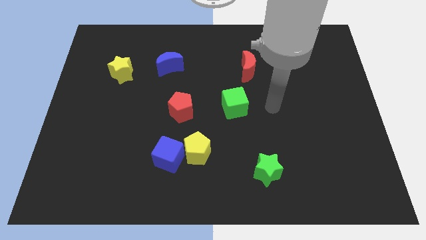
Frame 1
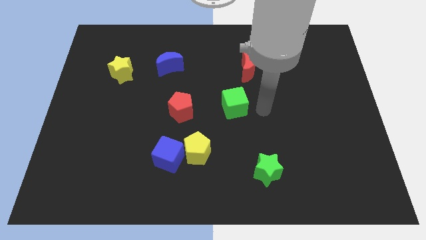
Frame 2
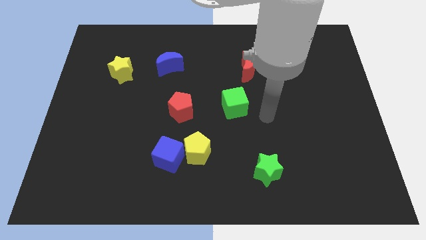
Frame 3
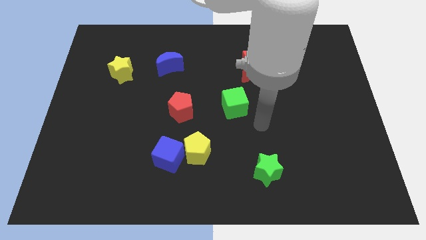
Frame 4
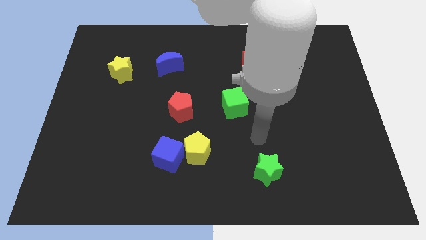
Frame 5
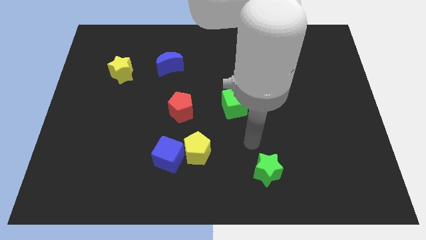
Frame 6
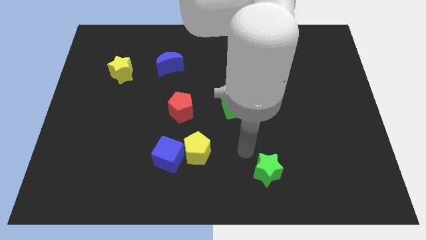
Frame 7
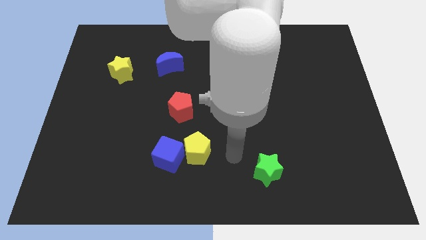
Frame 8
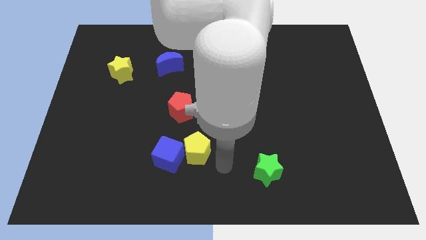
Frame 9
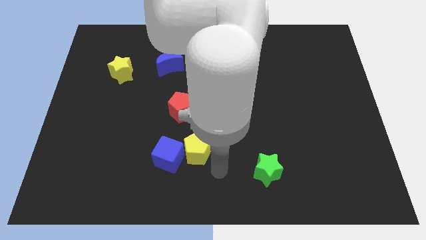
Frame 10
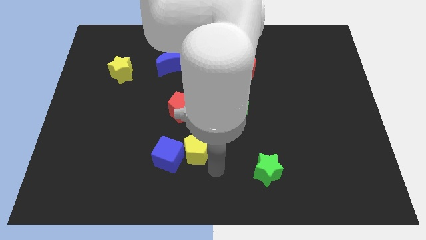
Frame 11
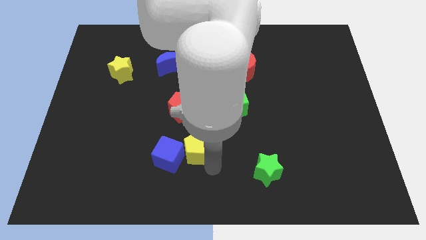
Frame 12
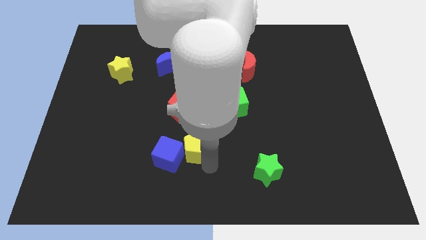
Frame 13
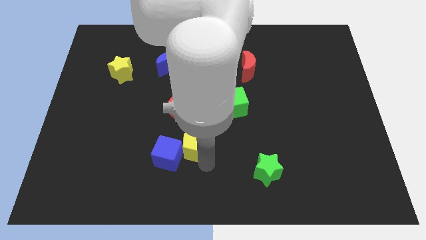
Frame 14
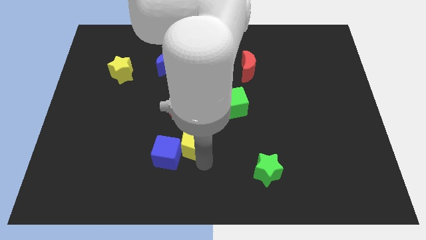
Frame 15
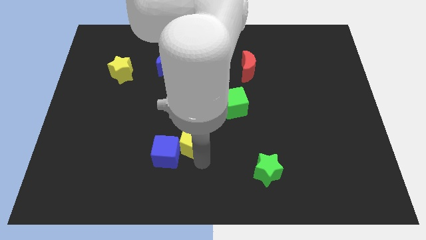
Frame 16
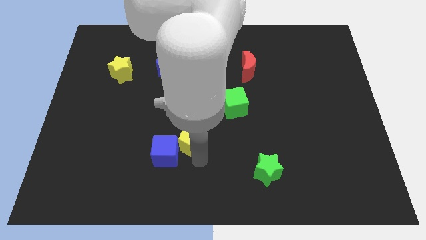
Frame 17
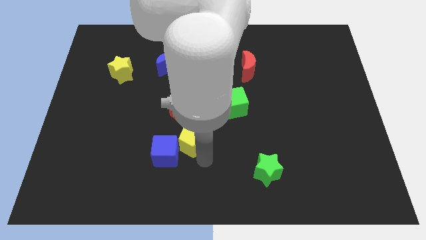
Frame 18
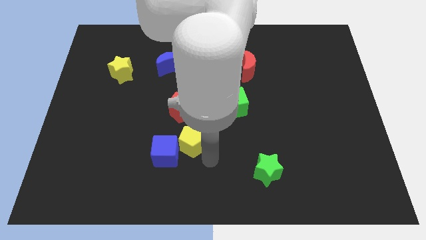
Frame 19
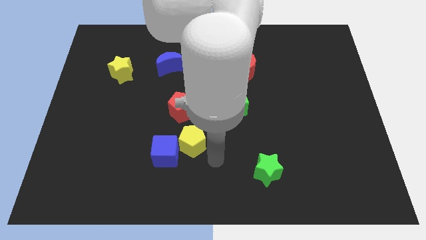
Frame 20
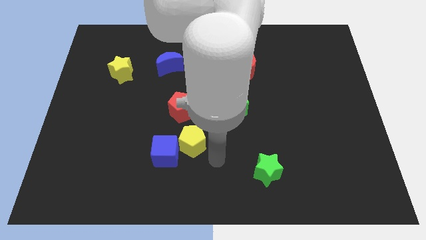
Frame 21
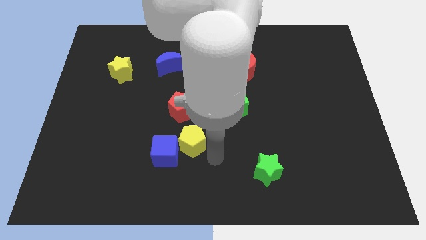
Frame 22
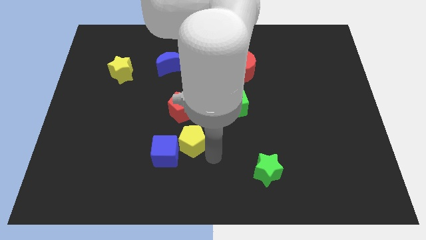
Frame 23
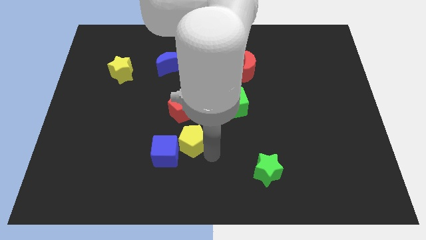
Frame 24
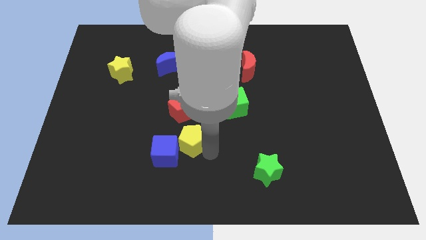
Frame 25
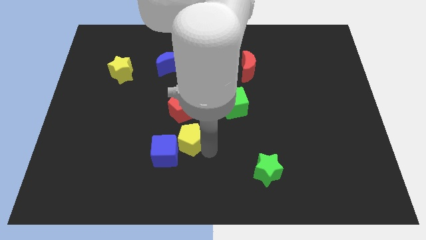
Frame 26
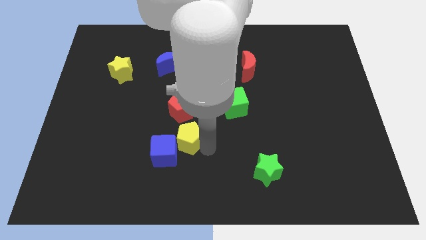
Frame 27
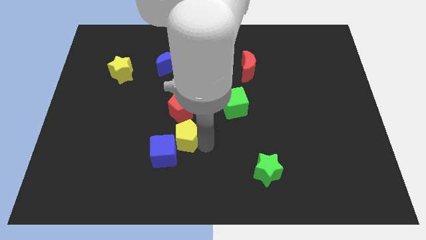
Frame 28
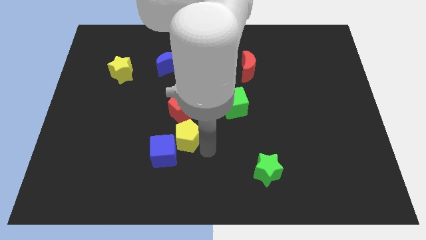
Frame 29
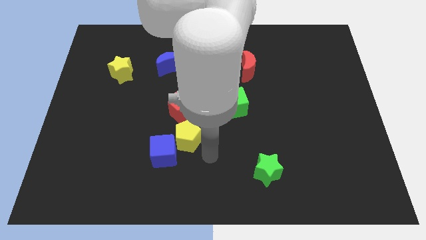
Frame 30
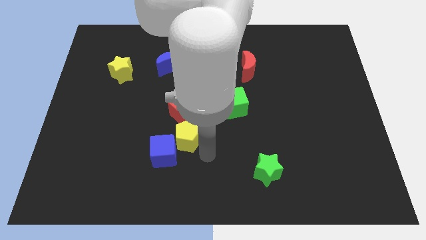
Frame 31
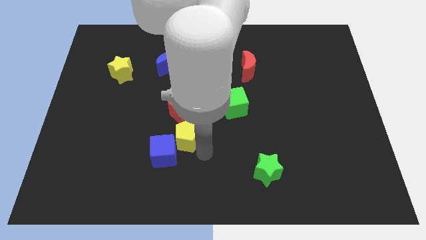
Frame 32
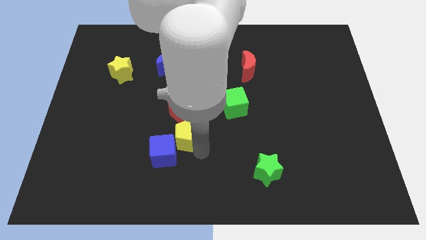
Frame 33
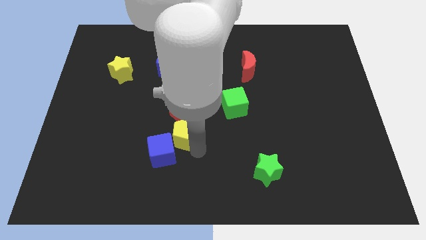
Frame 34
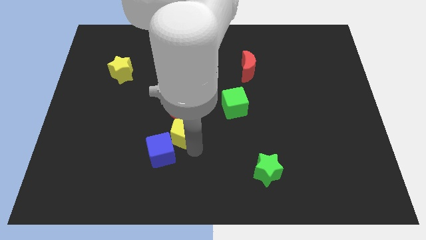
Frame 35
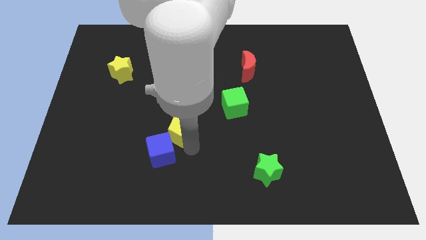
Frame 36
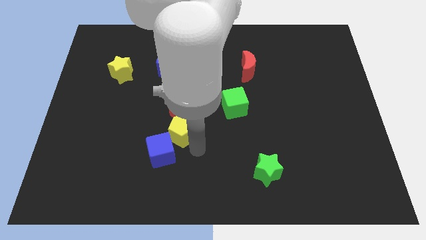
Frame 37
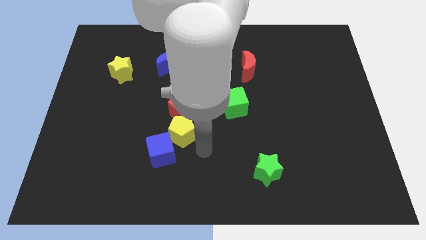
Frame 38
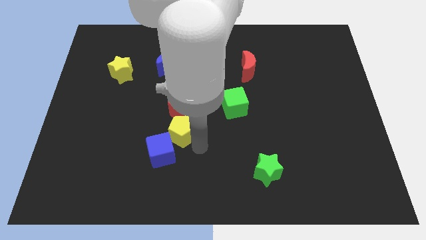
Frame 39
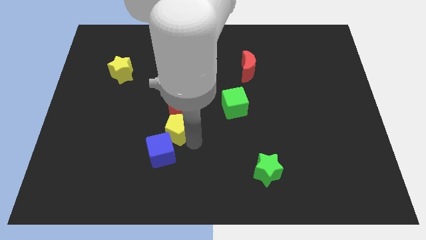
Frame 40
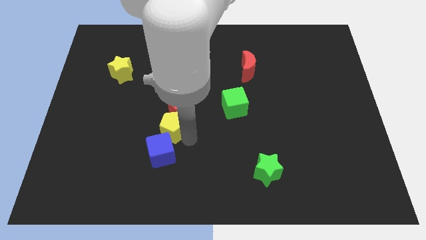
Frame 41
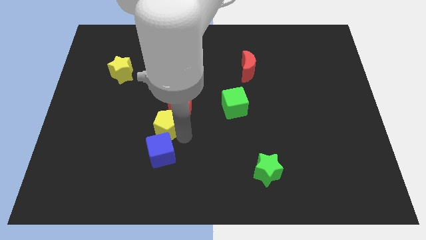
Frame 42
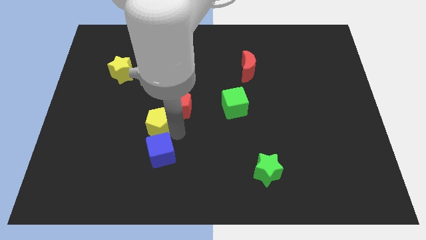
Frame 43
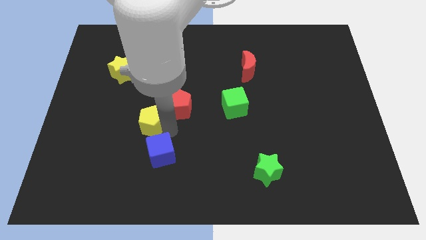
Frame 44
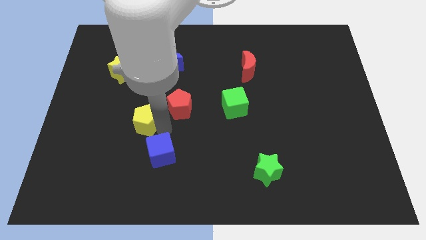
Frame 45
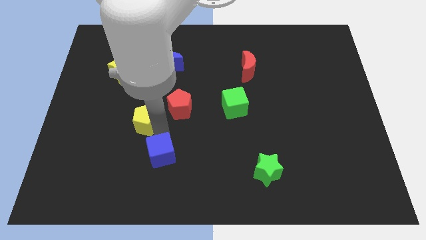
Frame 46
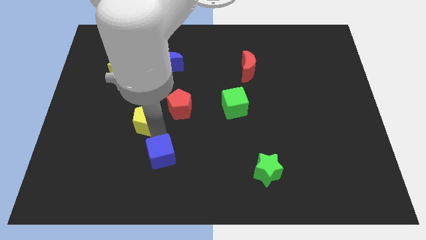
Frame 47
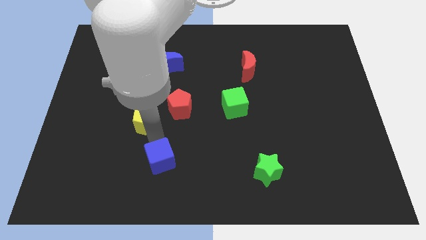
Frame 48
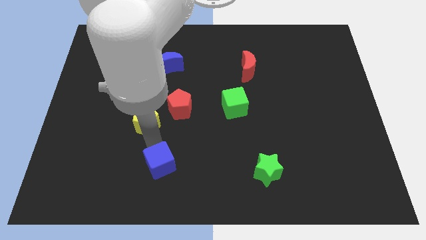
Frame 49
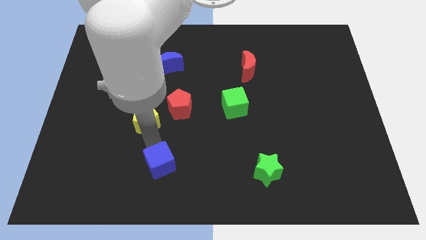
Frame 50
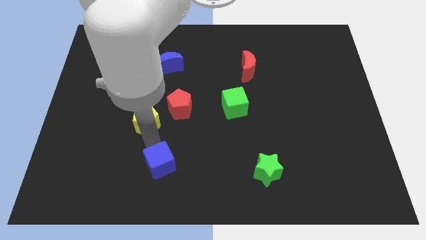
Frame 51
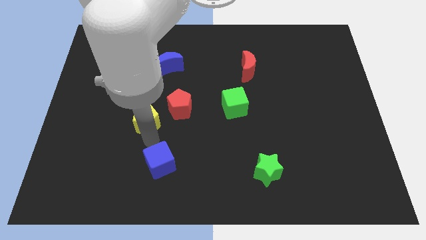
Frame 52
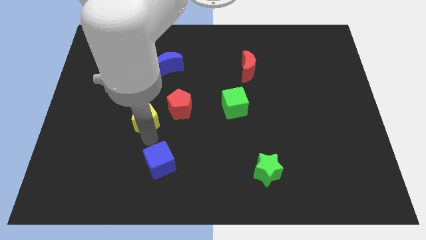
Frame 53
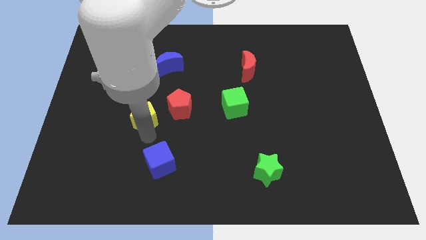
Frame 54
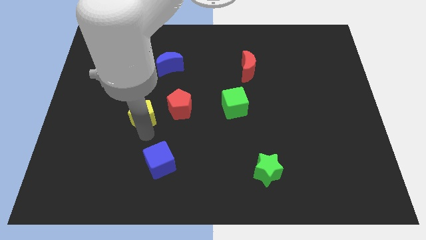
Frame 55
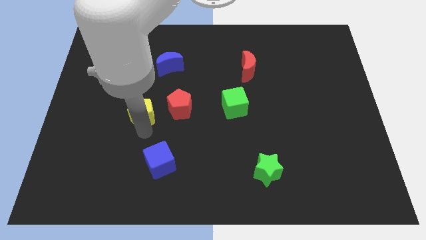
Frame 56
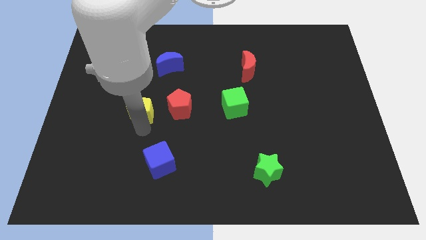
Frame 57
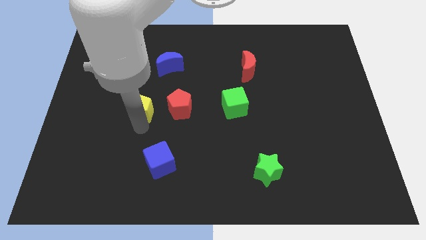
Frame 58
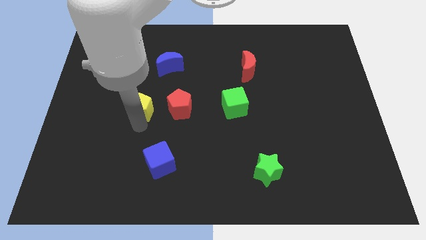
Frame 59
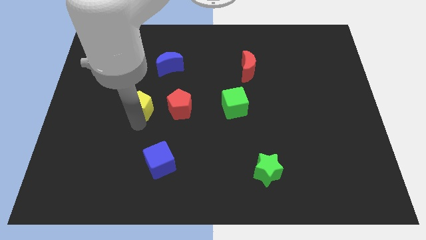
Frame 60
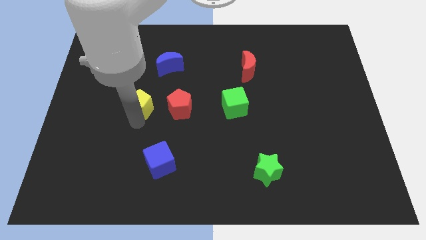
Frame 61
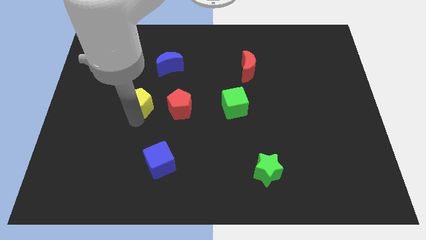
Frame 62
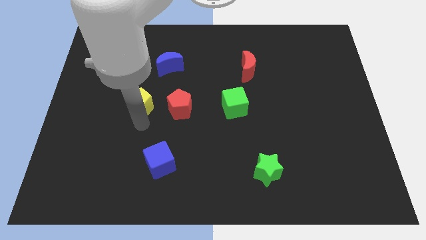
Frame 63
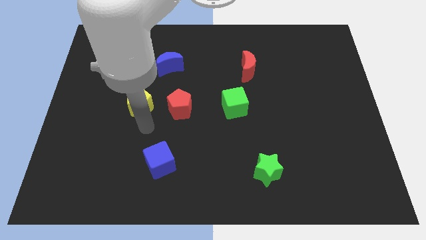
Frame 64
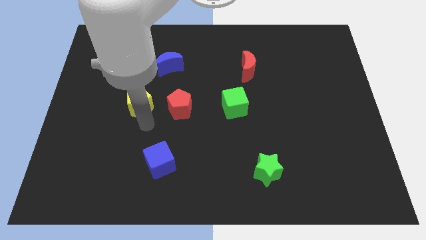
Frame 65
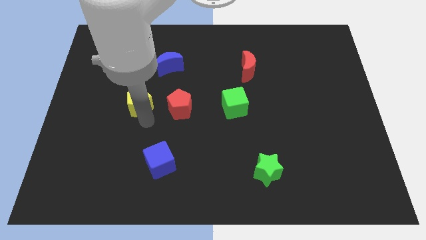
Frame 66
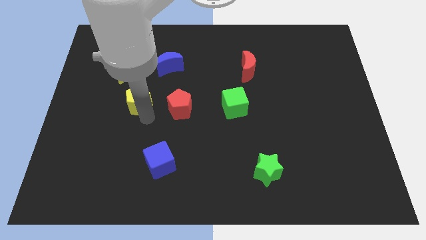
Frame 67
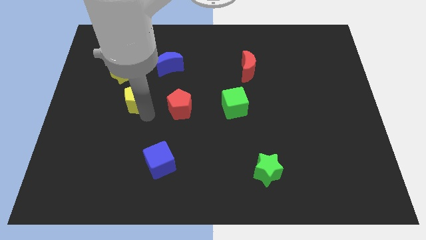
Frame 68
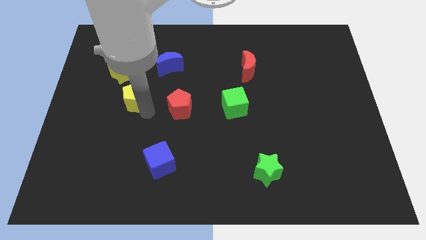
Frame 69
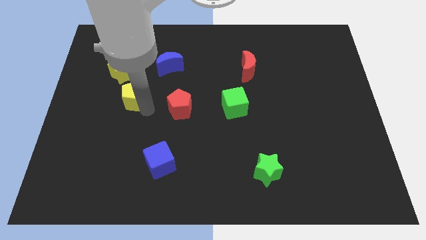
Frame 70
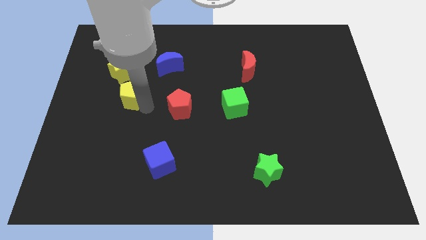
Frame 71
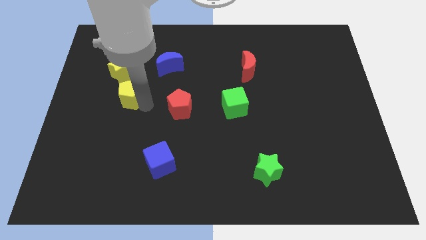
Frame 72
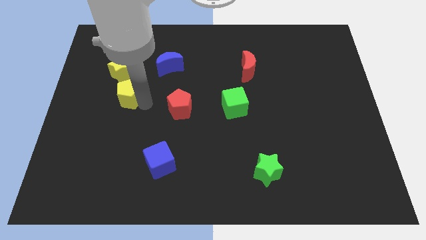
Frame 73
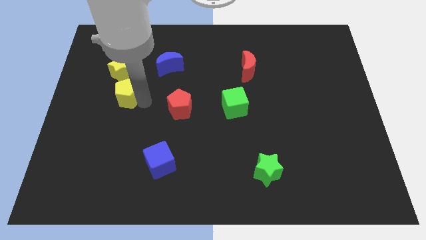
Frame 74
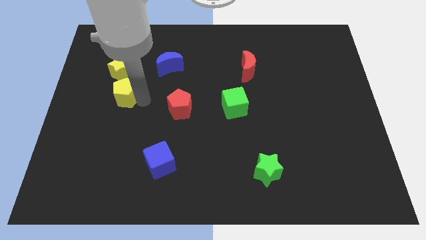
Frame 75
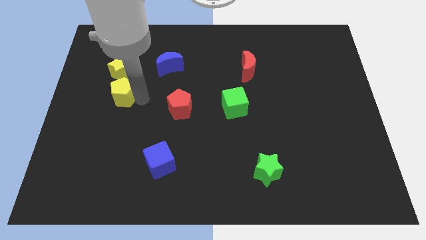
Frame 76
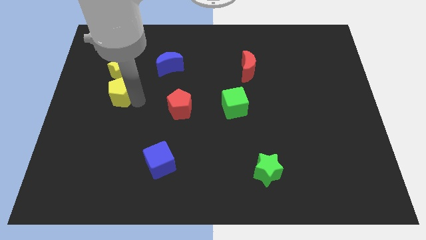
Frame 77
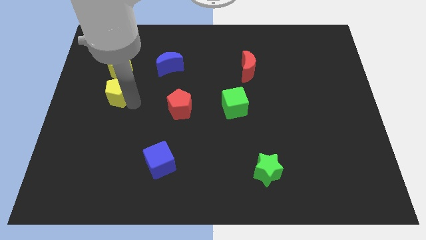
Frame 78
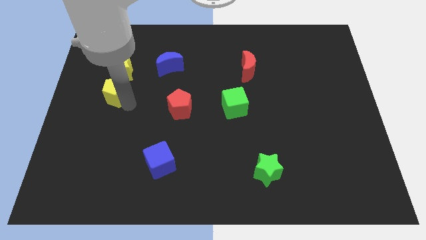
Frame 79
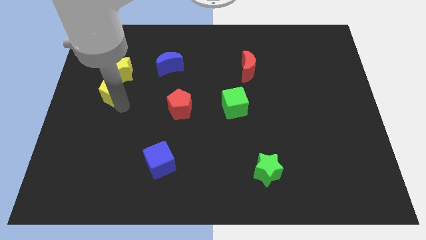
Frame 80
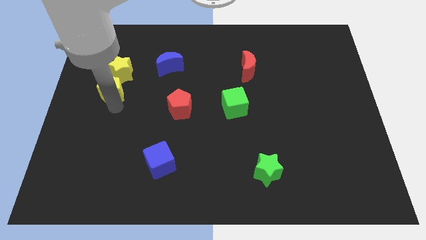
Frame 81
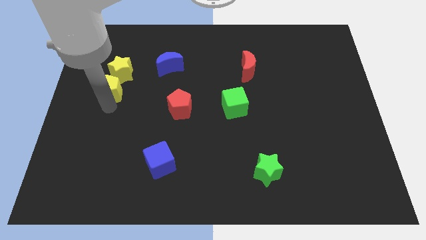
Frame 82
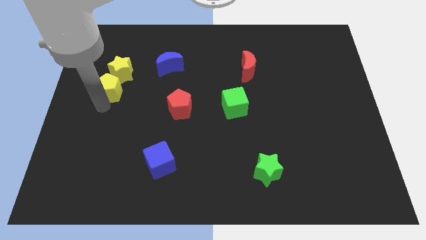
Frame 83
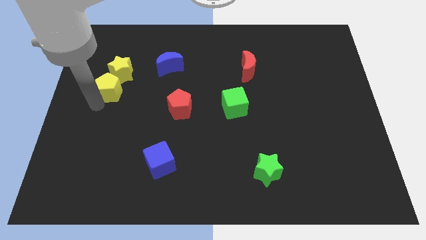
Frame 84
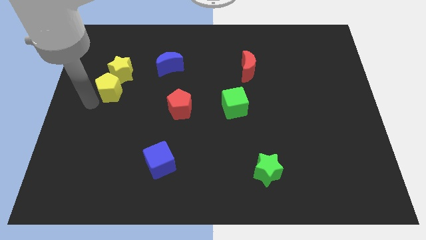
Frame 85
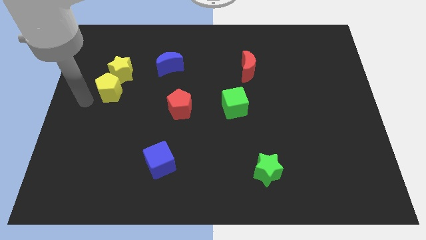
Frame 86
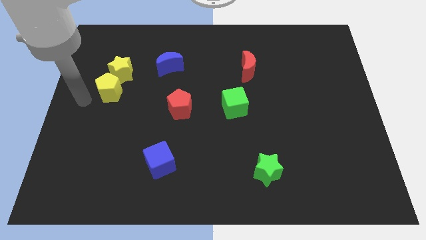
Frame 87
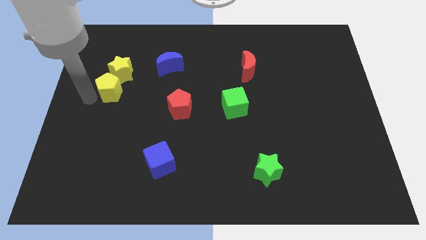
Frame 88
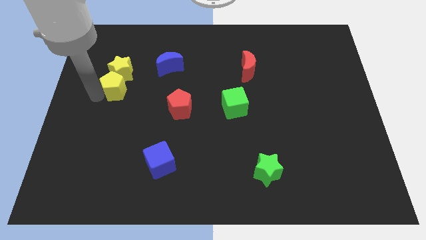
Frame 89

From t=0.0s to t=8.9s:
slide the yellow pentagon to the yellow star
